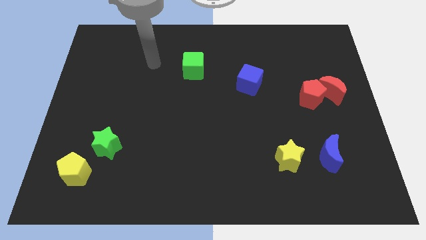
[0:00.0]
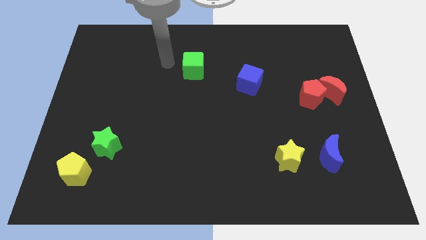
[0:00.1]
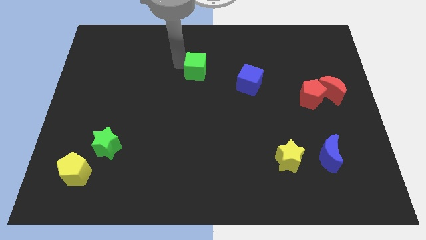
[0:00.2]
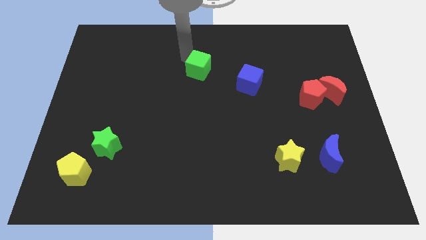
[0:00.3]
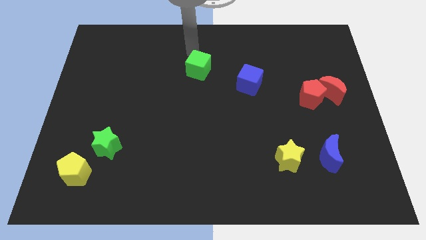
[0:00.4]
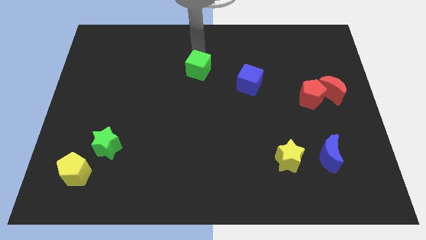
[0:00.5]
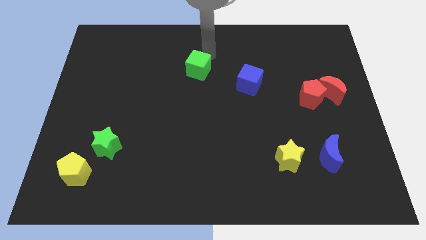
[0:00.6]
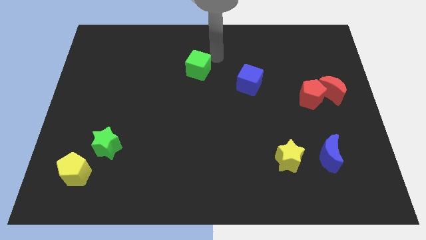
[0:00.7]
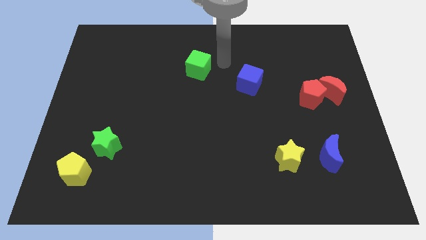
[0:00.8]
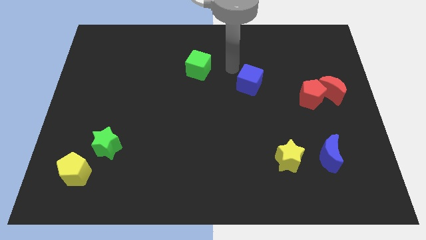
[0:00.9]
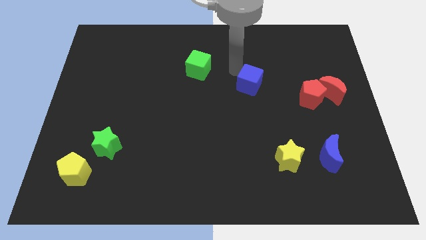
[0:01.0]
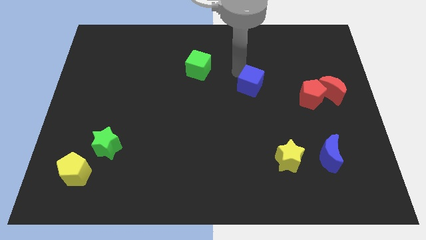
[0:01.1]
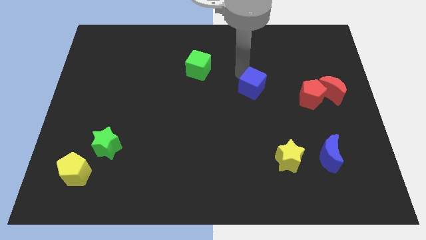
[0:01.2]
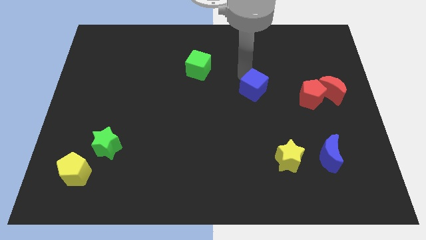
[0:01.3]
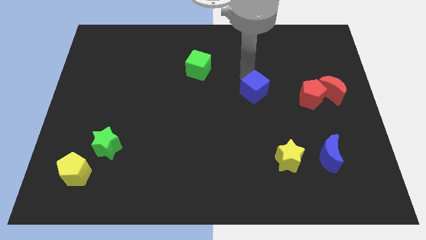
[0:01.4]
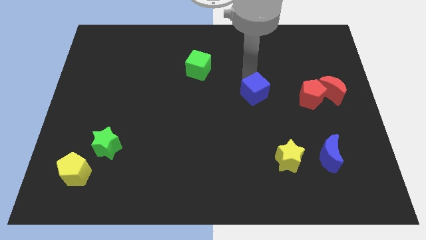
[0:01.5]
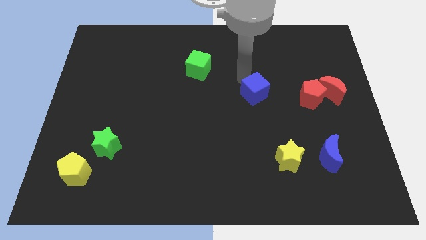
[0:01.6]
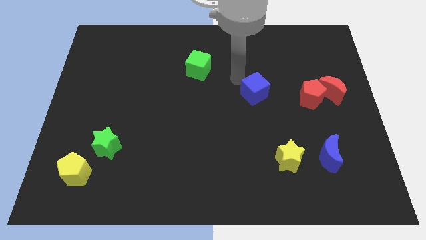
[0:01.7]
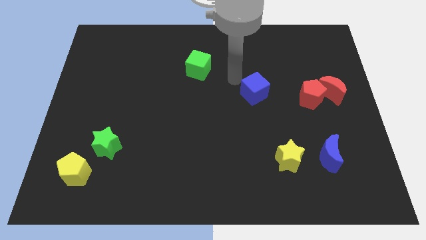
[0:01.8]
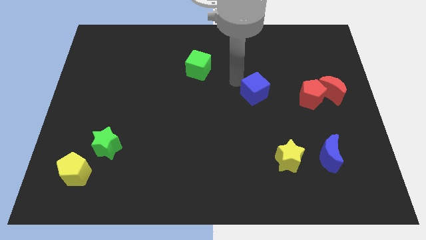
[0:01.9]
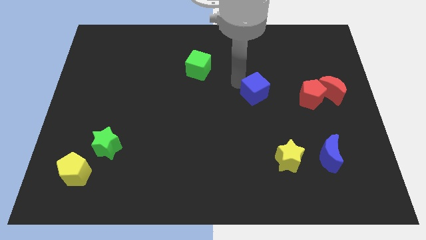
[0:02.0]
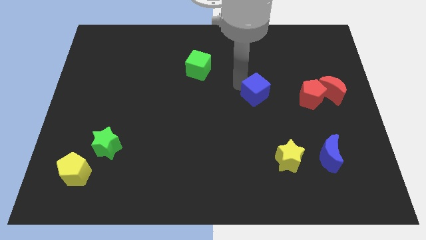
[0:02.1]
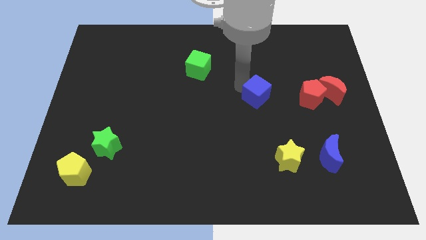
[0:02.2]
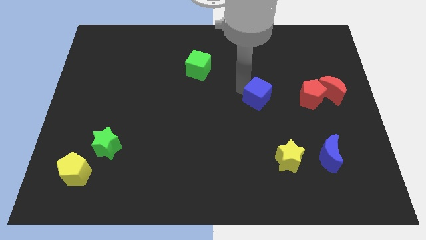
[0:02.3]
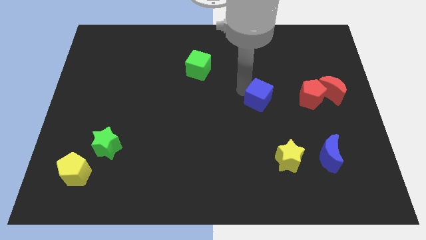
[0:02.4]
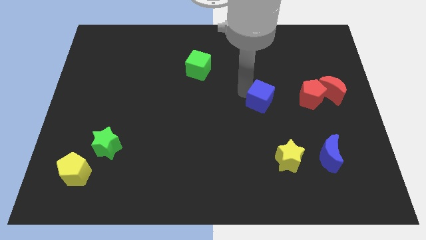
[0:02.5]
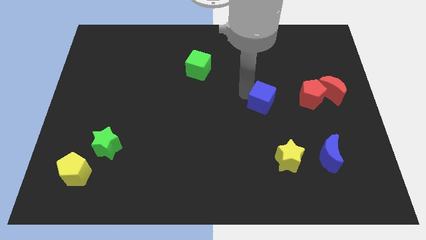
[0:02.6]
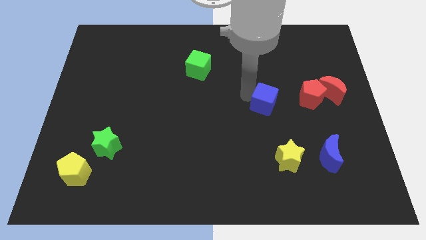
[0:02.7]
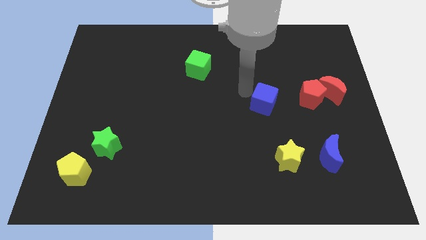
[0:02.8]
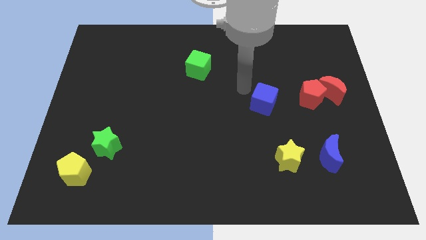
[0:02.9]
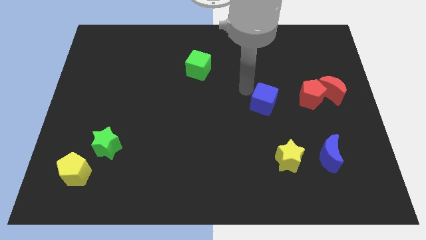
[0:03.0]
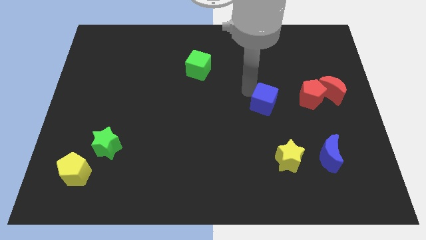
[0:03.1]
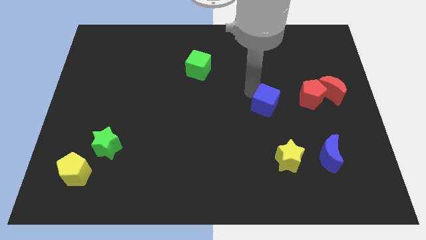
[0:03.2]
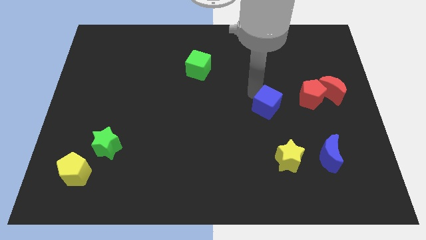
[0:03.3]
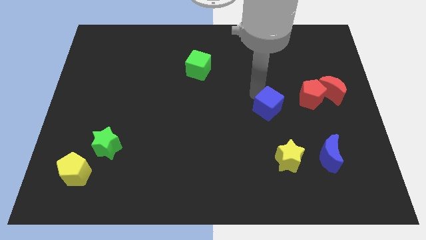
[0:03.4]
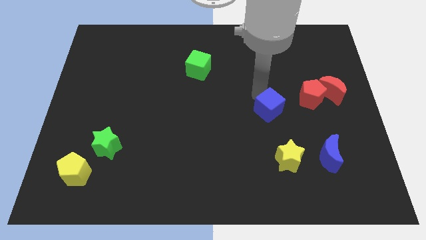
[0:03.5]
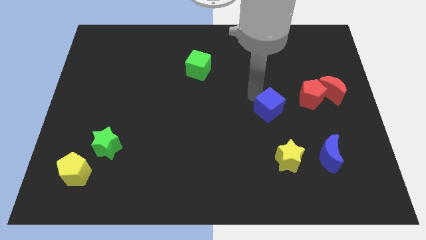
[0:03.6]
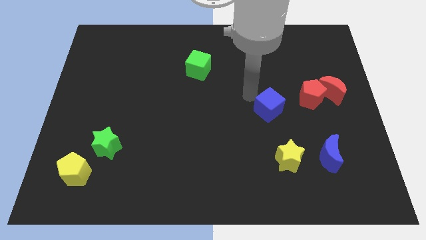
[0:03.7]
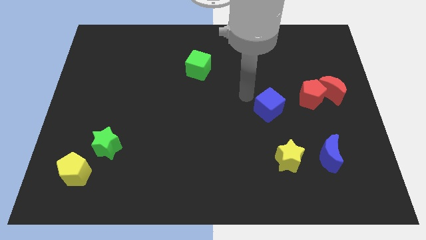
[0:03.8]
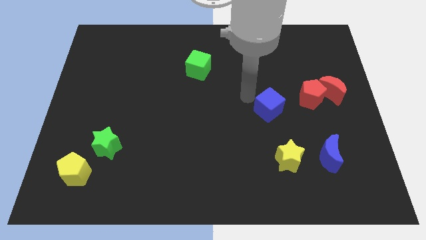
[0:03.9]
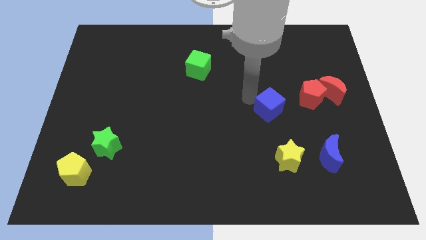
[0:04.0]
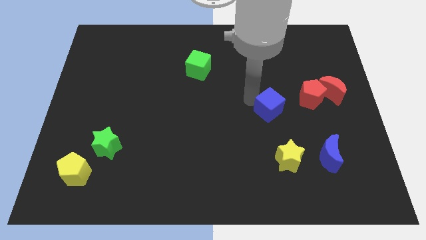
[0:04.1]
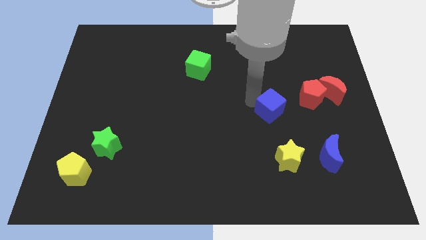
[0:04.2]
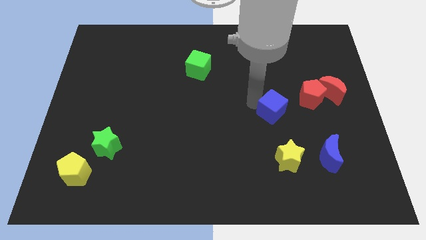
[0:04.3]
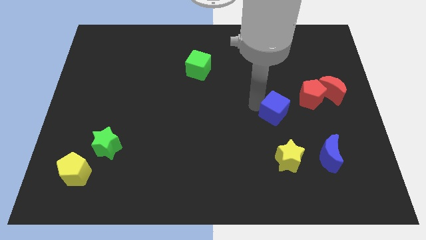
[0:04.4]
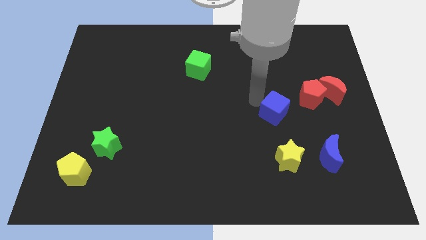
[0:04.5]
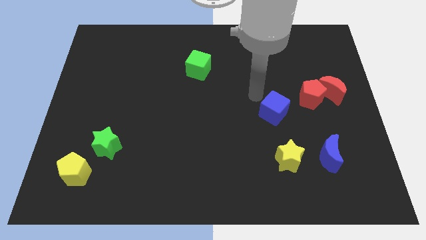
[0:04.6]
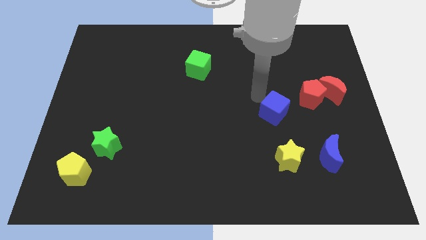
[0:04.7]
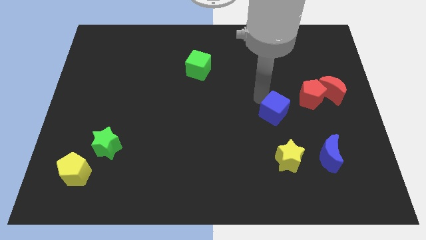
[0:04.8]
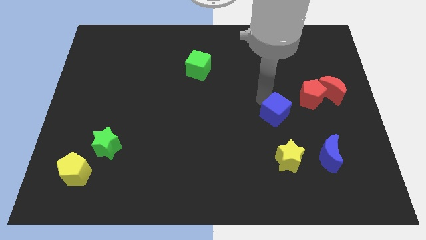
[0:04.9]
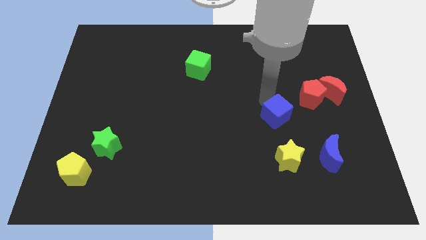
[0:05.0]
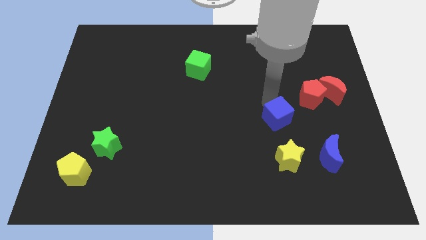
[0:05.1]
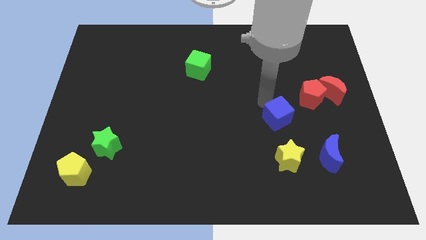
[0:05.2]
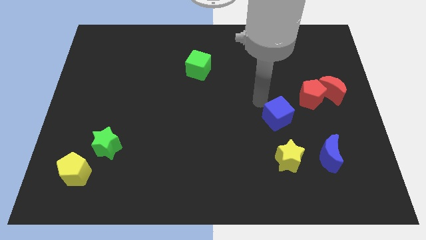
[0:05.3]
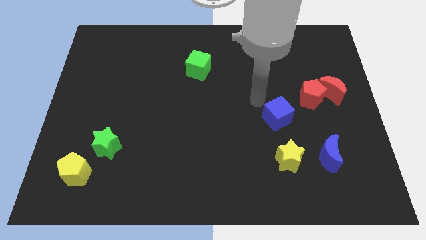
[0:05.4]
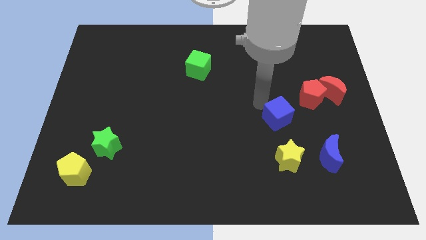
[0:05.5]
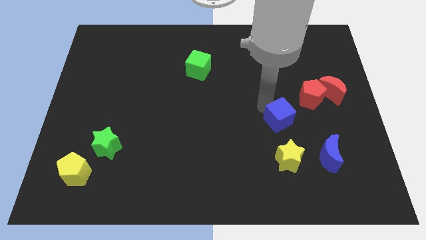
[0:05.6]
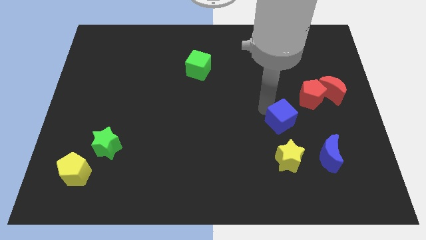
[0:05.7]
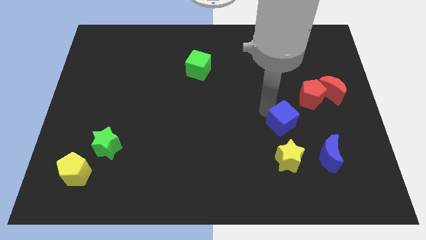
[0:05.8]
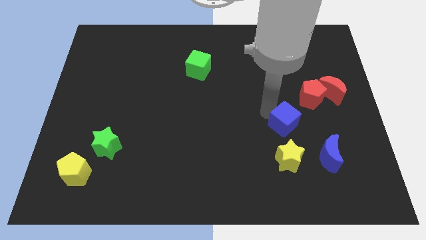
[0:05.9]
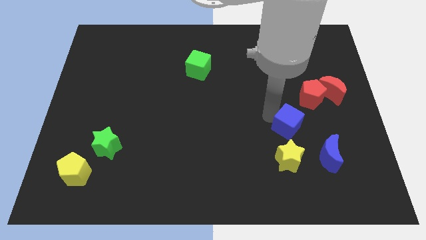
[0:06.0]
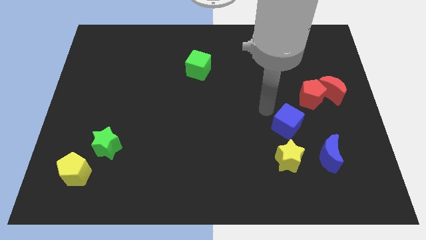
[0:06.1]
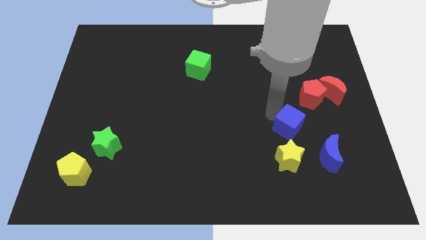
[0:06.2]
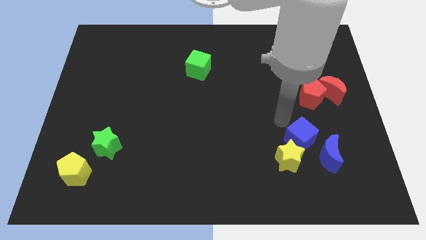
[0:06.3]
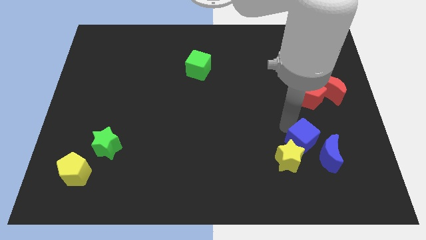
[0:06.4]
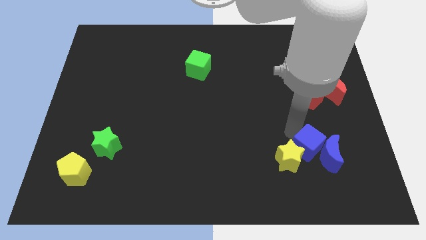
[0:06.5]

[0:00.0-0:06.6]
move the blue cube next to the blue moon

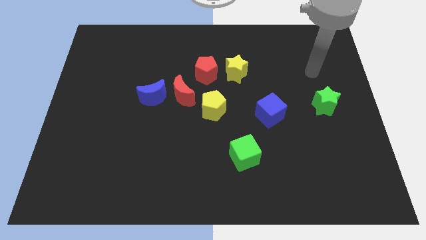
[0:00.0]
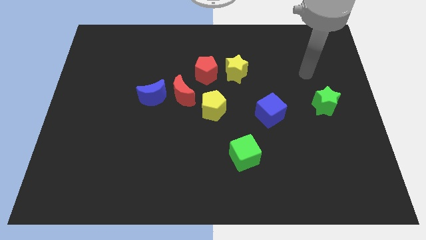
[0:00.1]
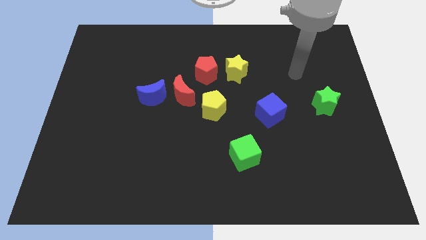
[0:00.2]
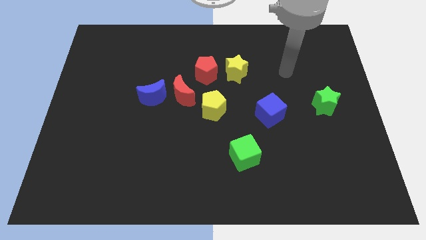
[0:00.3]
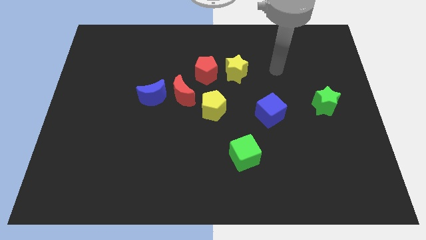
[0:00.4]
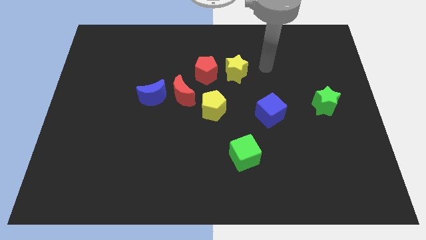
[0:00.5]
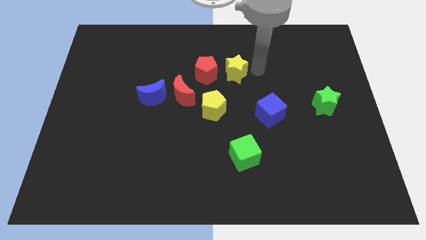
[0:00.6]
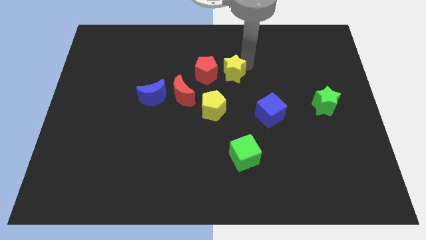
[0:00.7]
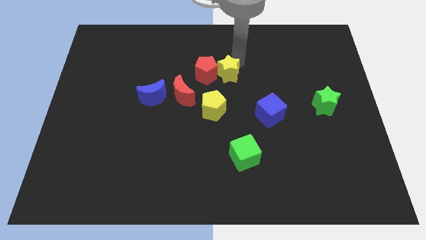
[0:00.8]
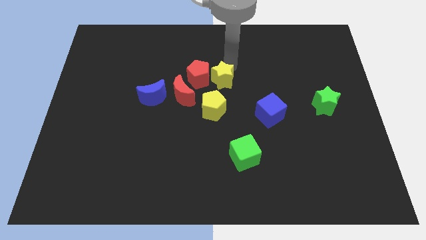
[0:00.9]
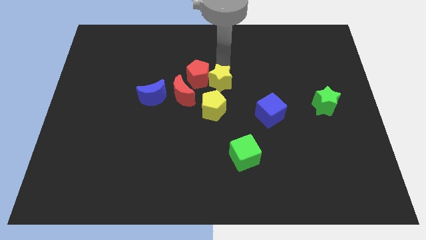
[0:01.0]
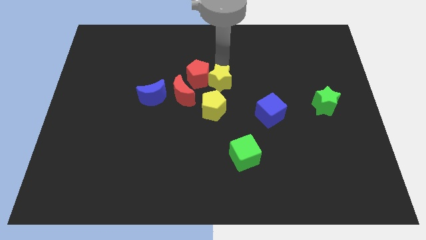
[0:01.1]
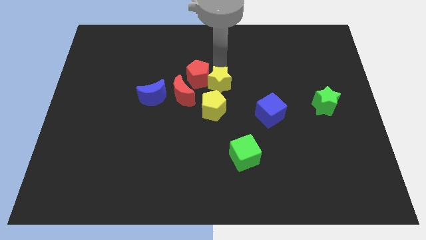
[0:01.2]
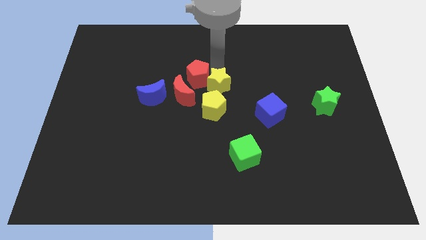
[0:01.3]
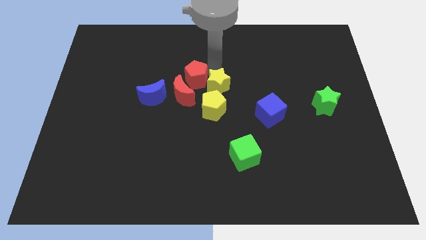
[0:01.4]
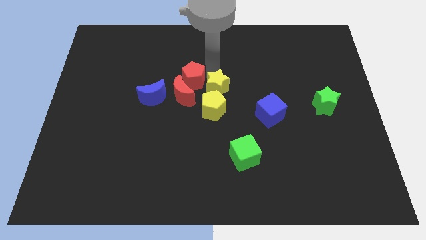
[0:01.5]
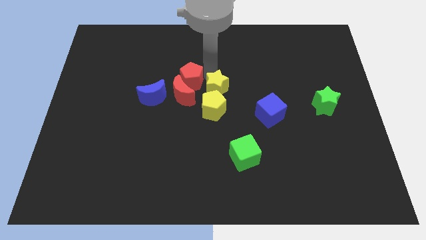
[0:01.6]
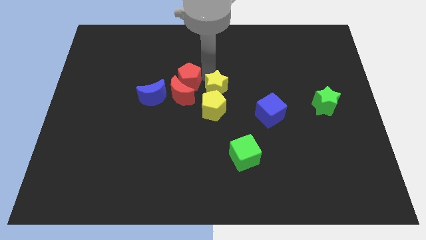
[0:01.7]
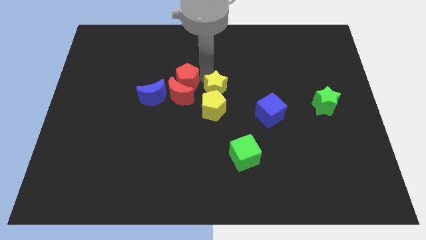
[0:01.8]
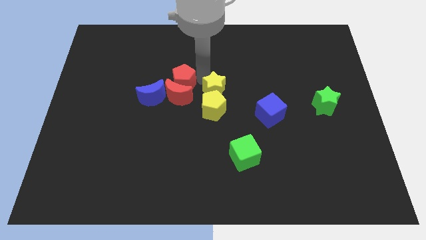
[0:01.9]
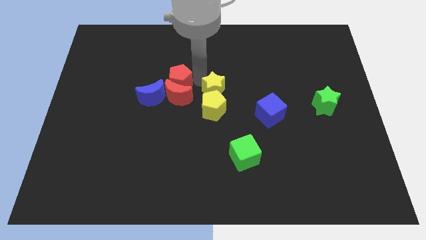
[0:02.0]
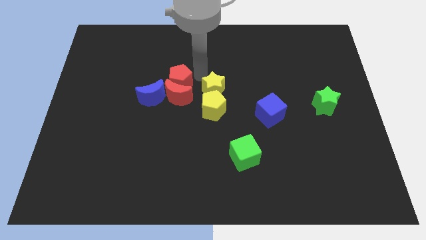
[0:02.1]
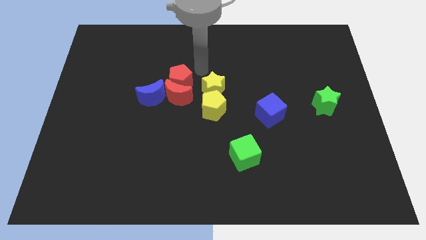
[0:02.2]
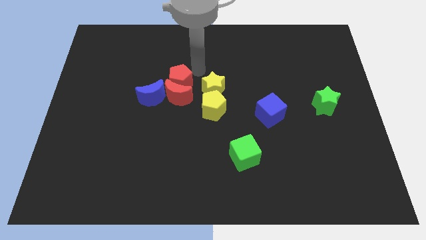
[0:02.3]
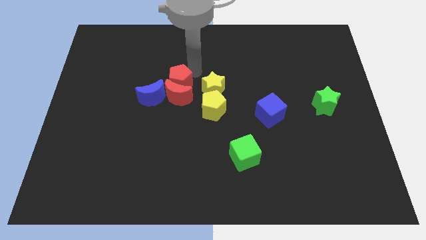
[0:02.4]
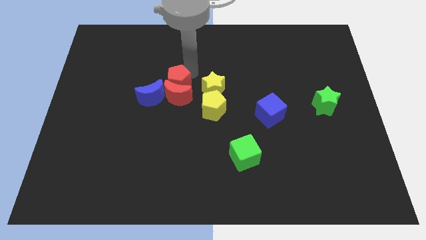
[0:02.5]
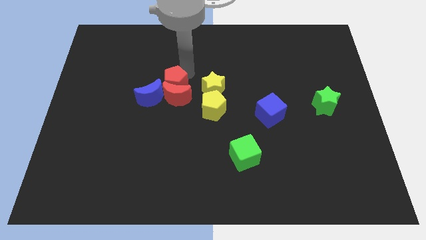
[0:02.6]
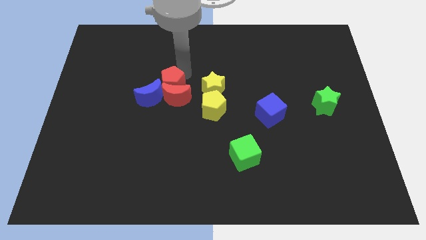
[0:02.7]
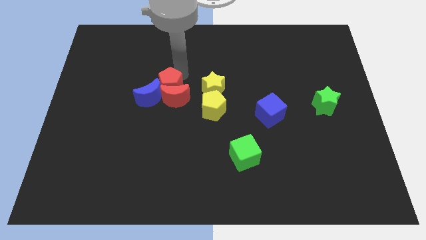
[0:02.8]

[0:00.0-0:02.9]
slide the red pentagon next to the blue moon
